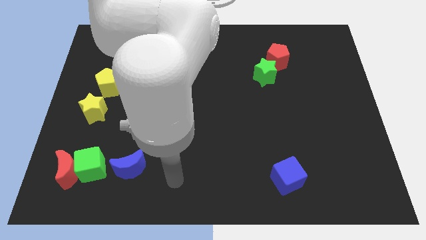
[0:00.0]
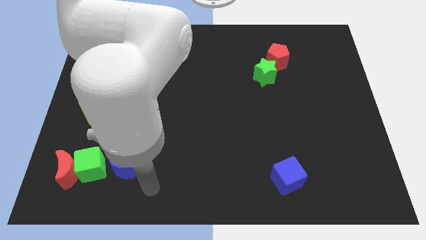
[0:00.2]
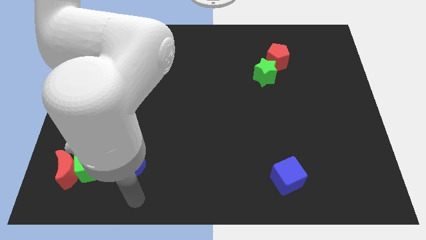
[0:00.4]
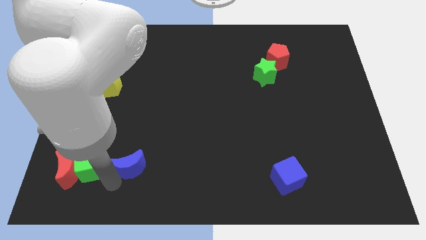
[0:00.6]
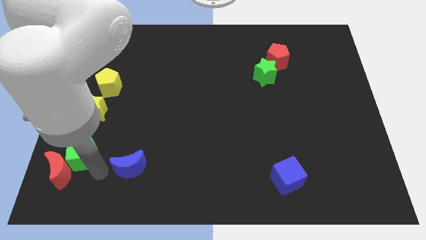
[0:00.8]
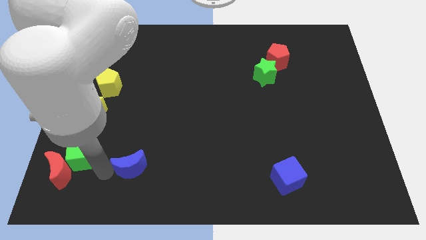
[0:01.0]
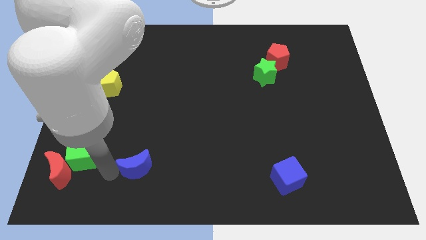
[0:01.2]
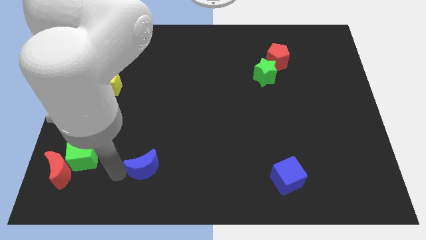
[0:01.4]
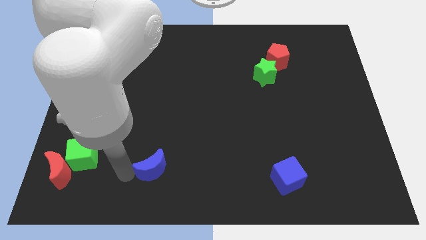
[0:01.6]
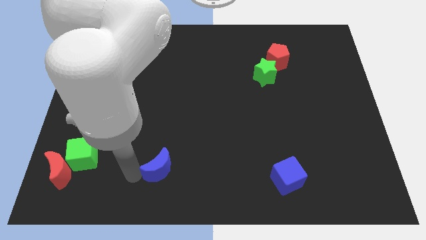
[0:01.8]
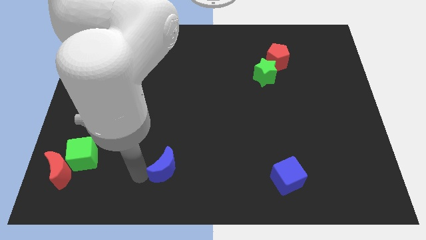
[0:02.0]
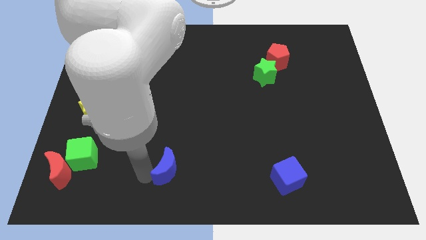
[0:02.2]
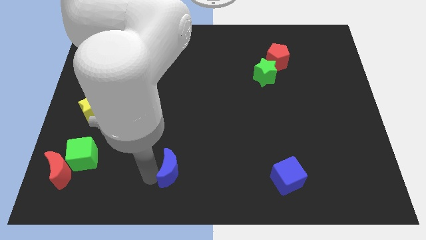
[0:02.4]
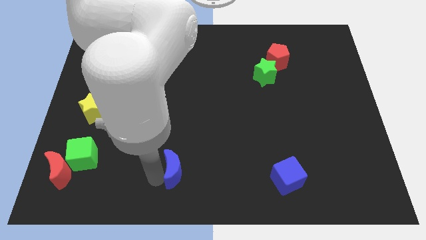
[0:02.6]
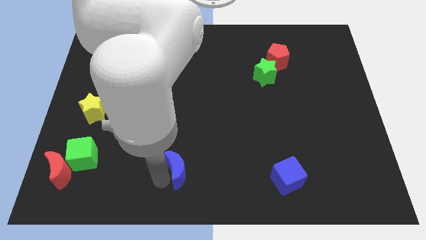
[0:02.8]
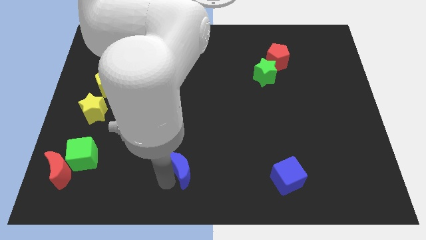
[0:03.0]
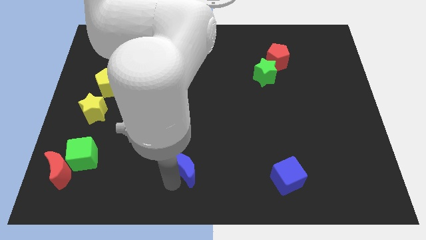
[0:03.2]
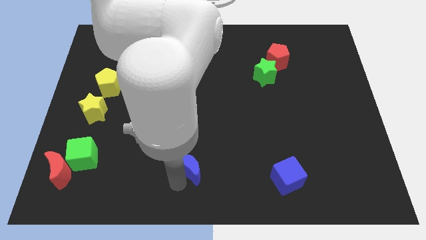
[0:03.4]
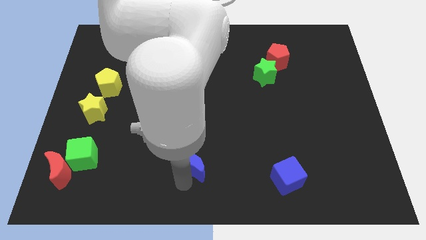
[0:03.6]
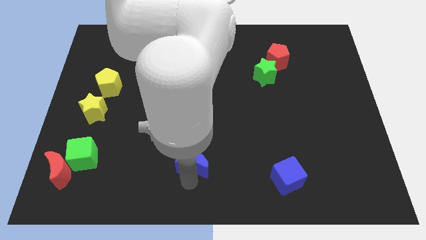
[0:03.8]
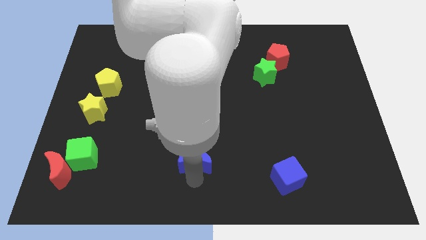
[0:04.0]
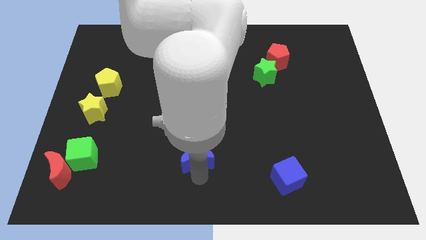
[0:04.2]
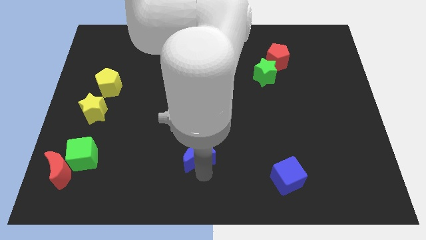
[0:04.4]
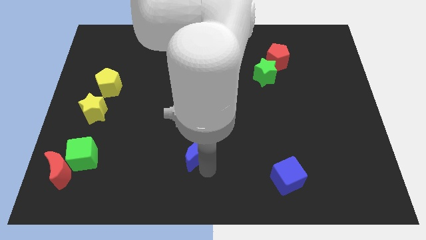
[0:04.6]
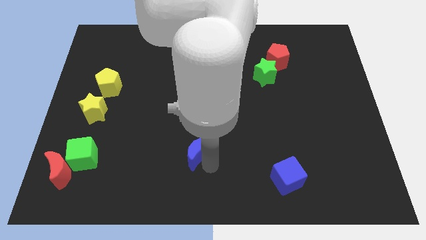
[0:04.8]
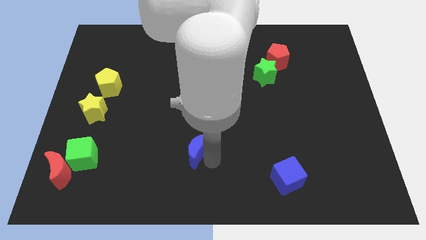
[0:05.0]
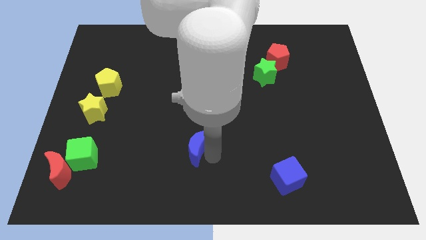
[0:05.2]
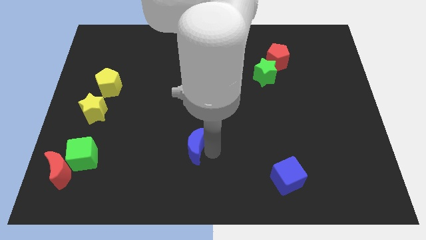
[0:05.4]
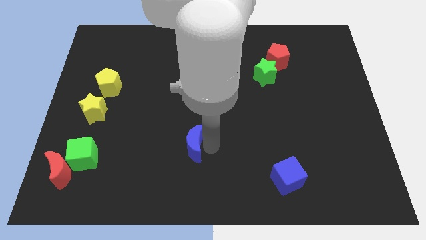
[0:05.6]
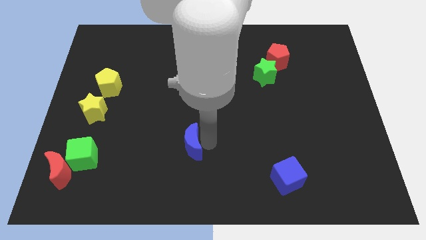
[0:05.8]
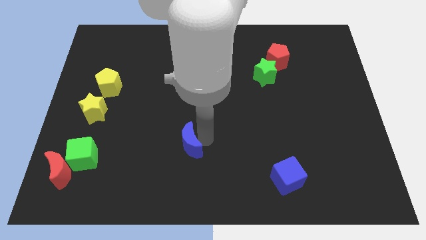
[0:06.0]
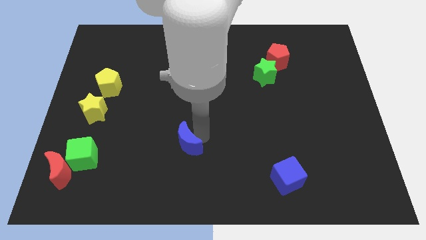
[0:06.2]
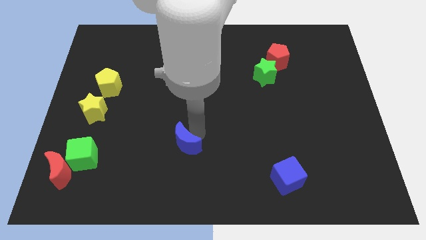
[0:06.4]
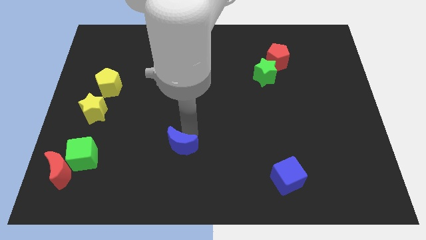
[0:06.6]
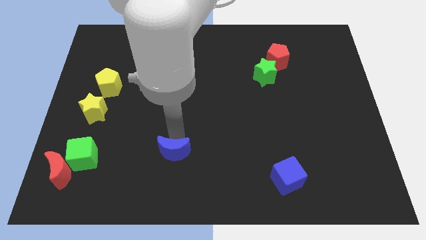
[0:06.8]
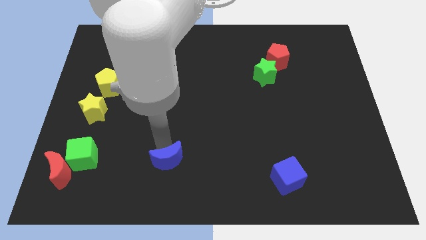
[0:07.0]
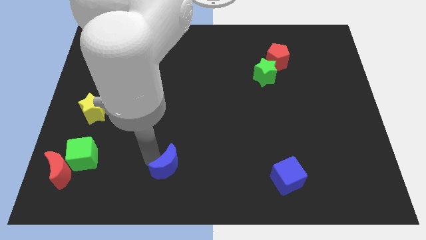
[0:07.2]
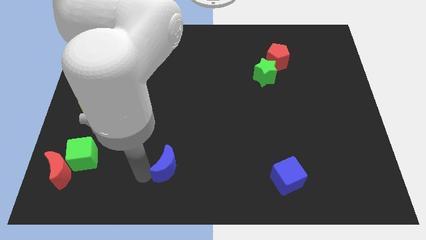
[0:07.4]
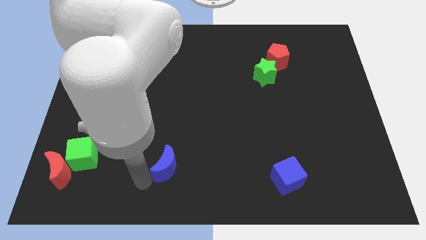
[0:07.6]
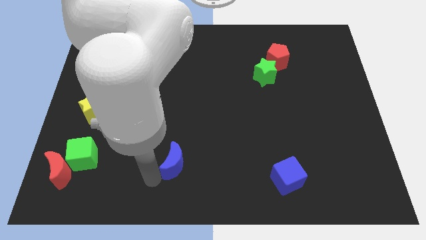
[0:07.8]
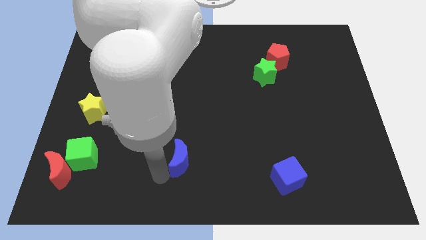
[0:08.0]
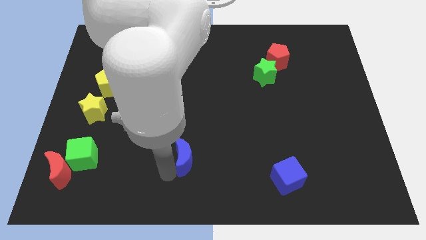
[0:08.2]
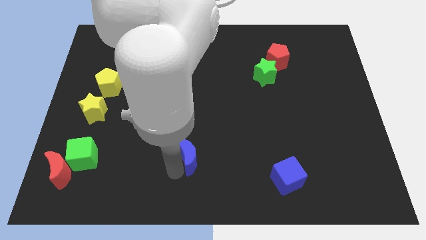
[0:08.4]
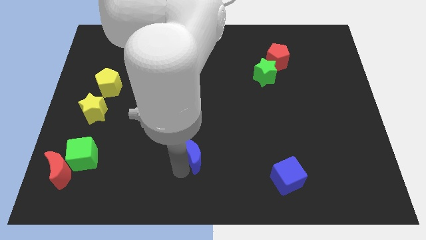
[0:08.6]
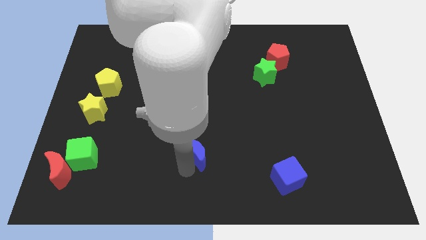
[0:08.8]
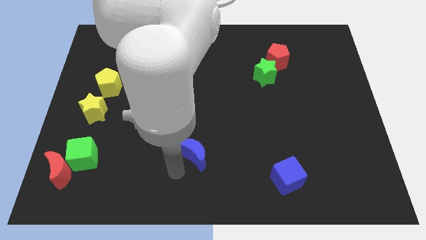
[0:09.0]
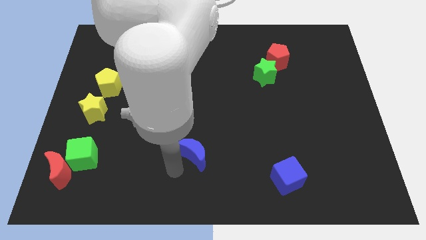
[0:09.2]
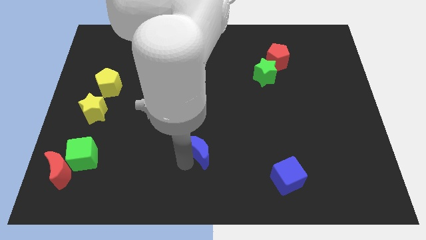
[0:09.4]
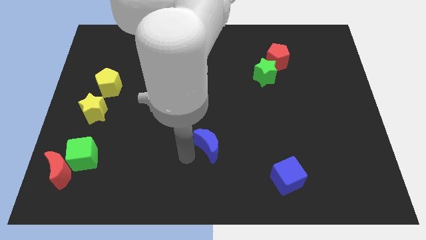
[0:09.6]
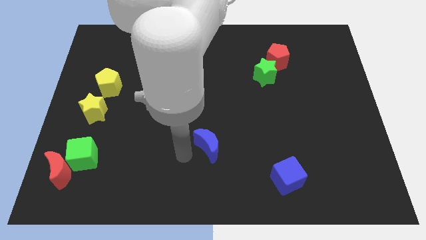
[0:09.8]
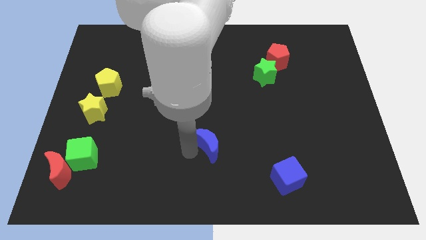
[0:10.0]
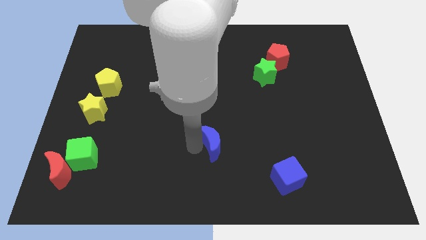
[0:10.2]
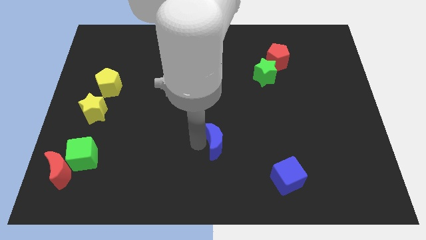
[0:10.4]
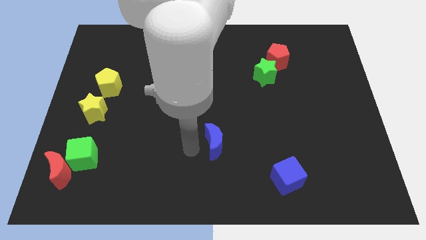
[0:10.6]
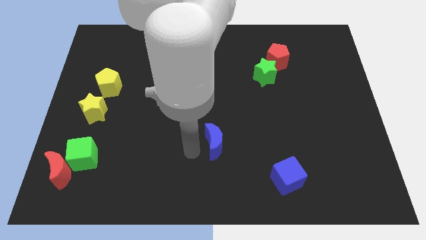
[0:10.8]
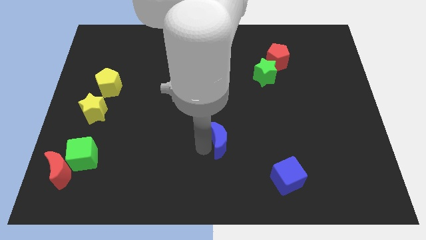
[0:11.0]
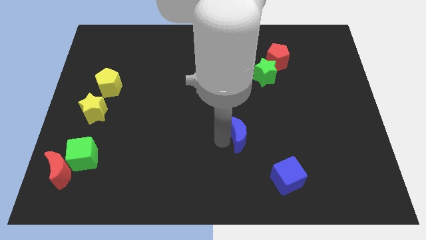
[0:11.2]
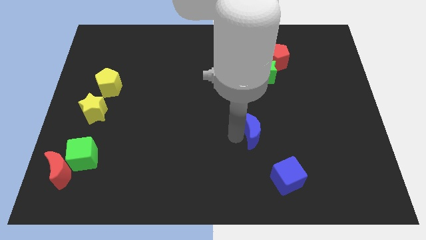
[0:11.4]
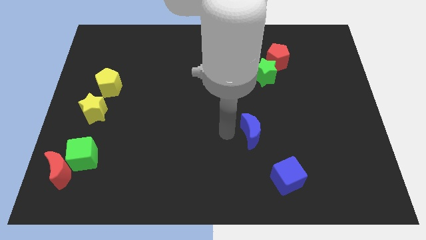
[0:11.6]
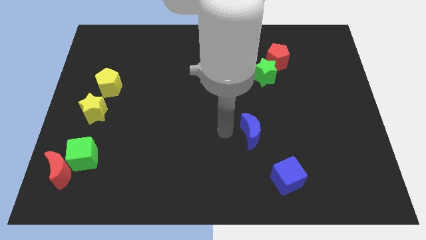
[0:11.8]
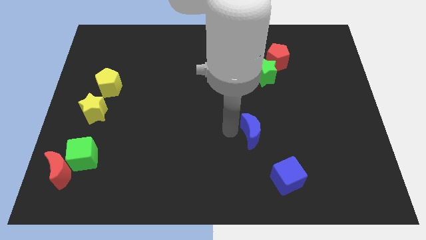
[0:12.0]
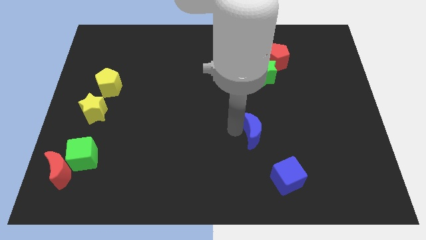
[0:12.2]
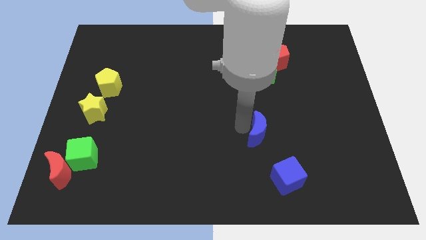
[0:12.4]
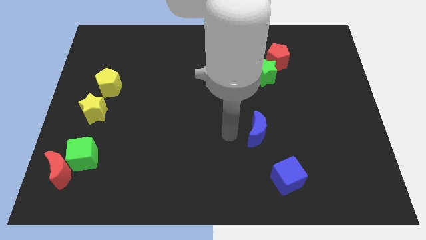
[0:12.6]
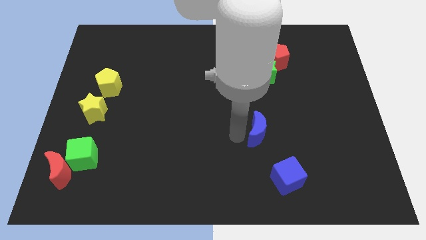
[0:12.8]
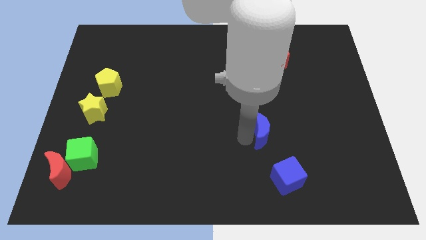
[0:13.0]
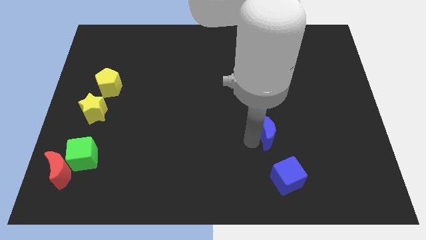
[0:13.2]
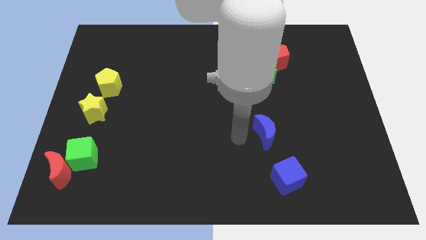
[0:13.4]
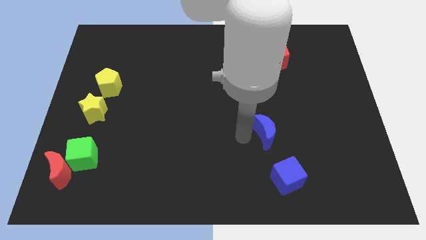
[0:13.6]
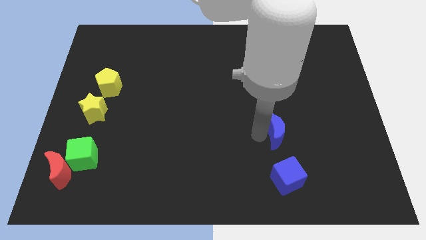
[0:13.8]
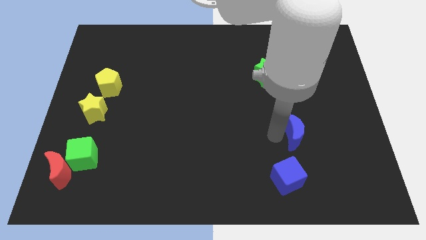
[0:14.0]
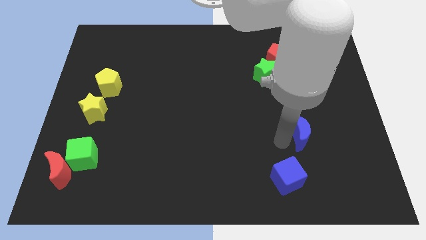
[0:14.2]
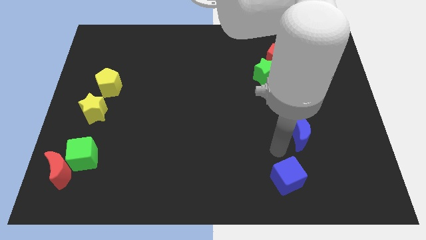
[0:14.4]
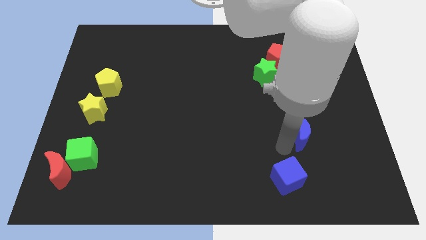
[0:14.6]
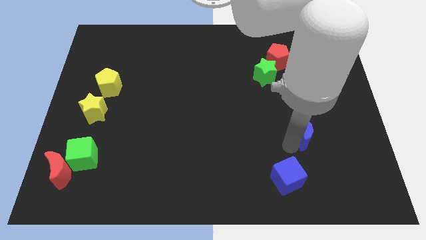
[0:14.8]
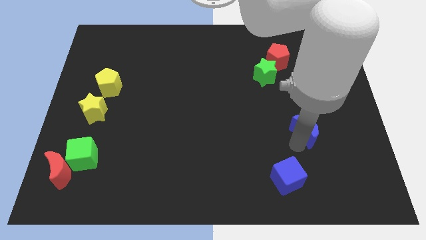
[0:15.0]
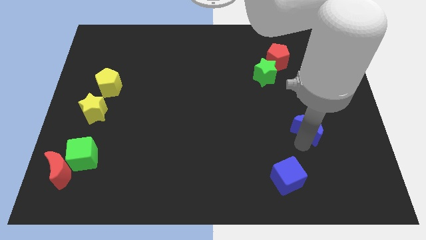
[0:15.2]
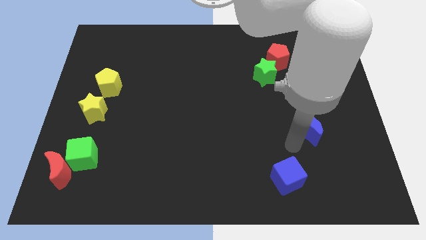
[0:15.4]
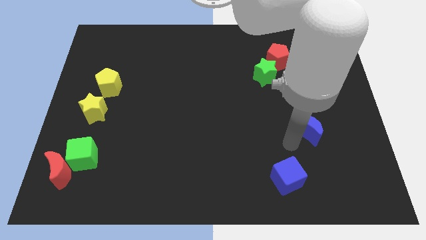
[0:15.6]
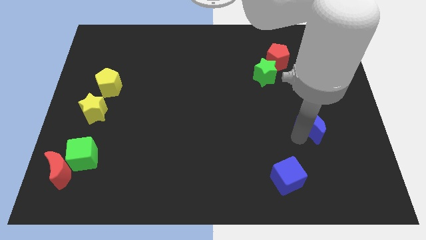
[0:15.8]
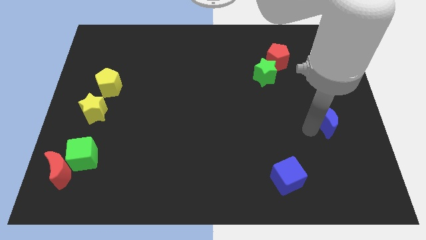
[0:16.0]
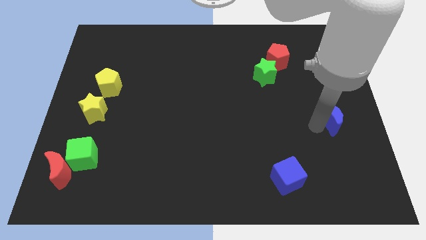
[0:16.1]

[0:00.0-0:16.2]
put the blue moon to the right side
